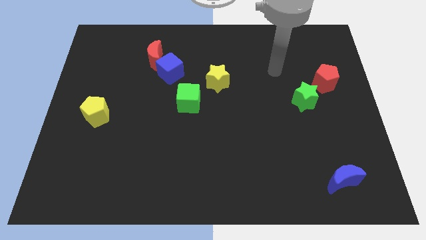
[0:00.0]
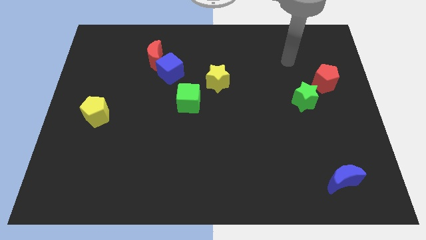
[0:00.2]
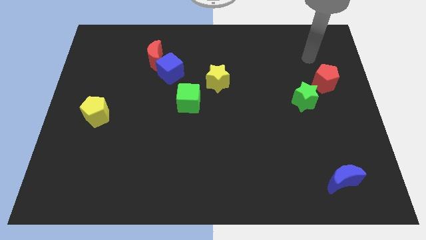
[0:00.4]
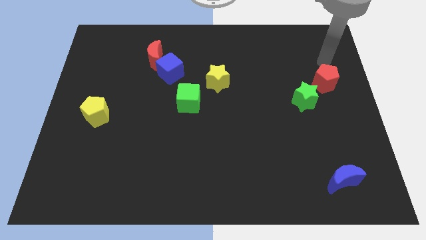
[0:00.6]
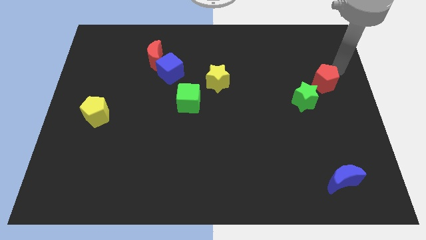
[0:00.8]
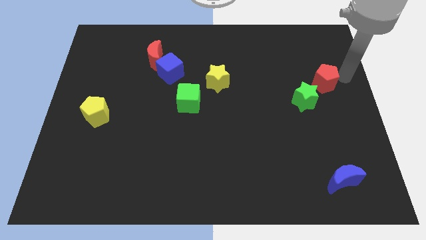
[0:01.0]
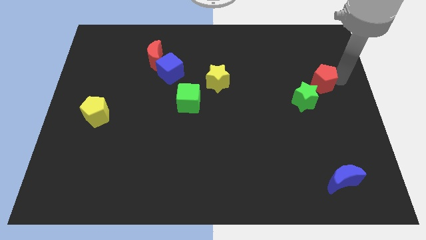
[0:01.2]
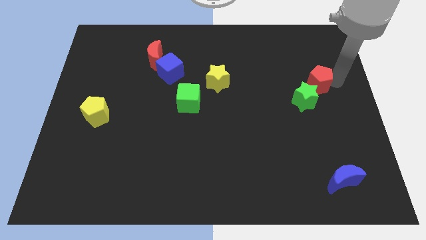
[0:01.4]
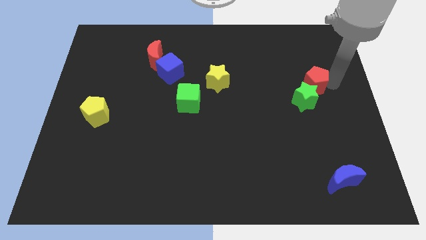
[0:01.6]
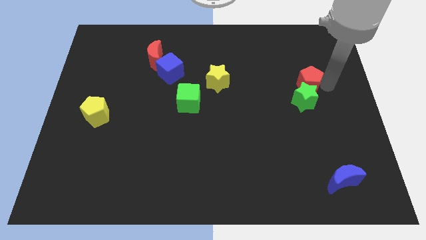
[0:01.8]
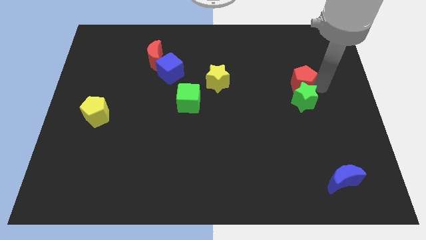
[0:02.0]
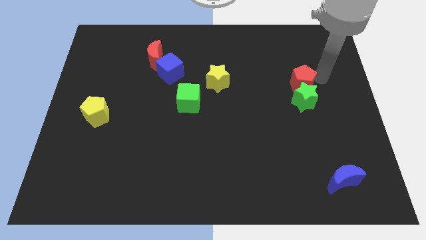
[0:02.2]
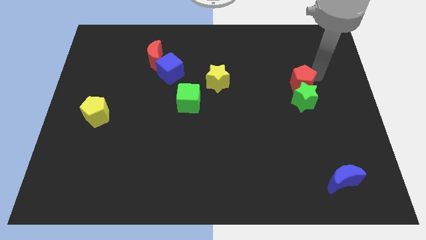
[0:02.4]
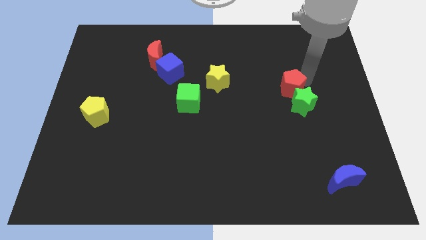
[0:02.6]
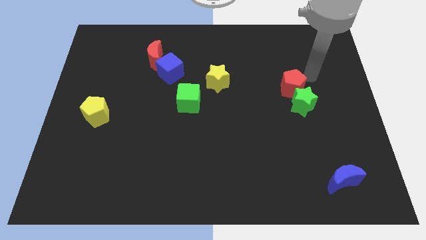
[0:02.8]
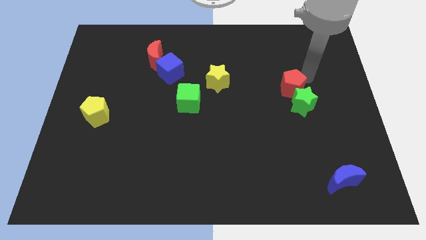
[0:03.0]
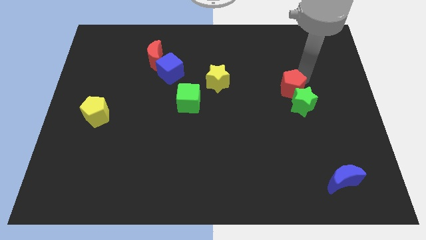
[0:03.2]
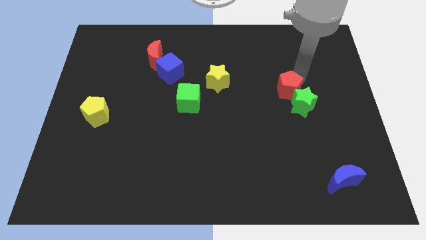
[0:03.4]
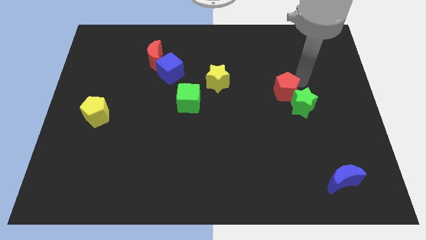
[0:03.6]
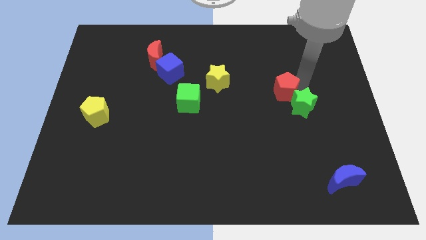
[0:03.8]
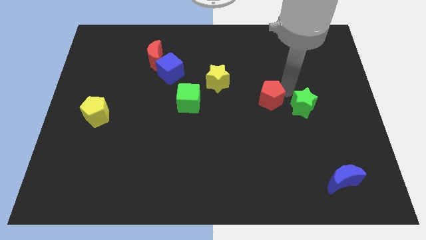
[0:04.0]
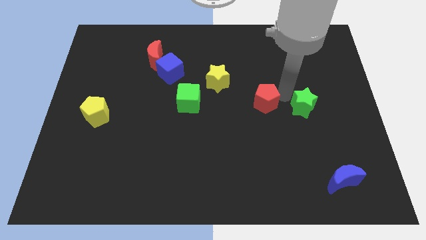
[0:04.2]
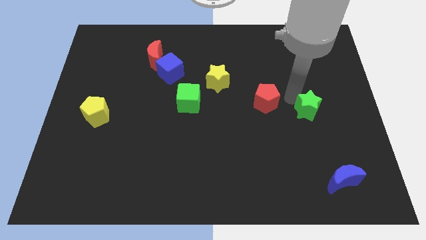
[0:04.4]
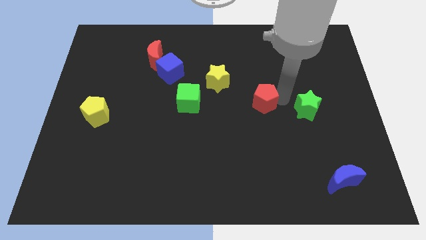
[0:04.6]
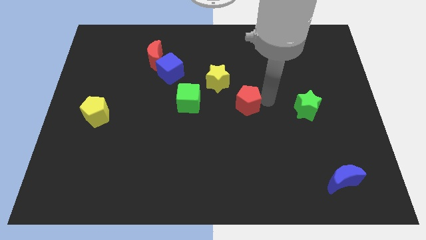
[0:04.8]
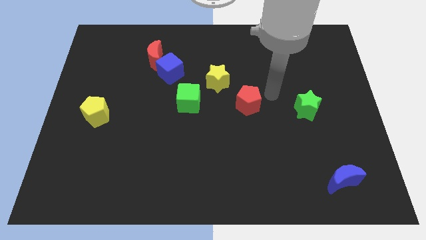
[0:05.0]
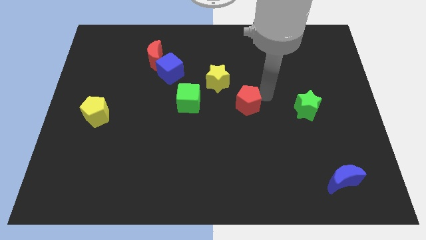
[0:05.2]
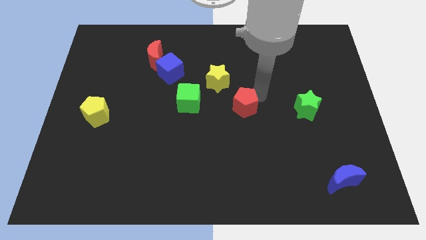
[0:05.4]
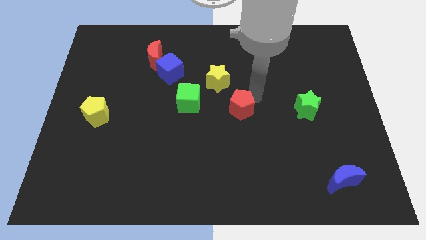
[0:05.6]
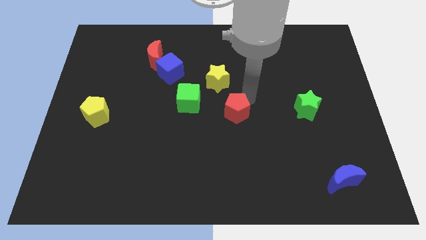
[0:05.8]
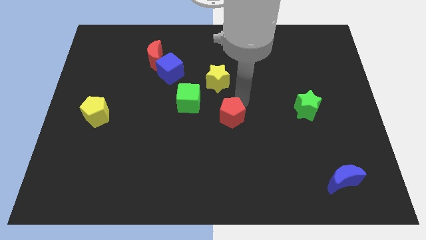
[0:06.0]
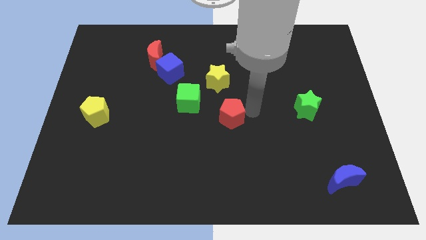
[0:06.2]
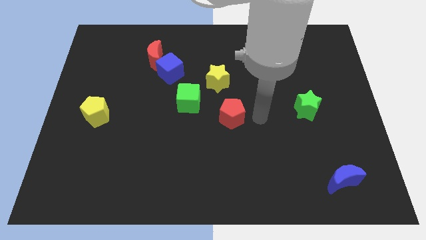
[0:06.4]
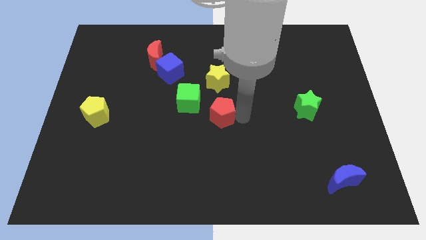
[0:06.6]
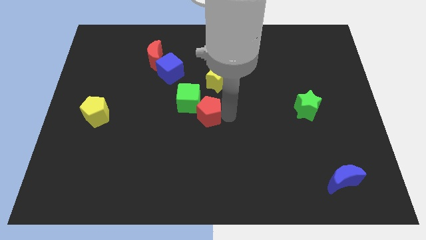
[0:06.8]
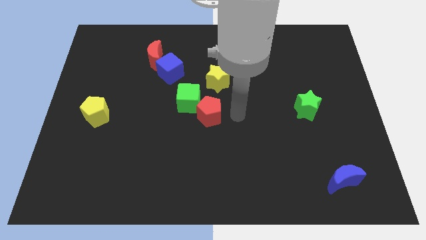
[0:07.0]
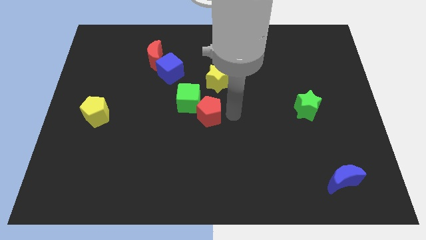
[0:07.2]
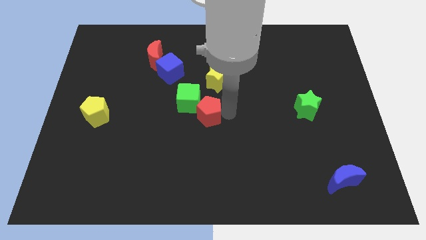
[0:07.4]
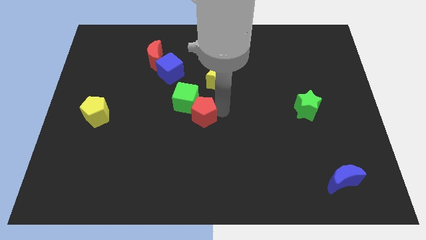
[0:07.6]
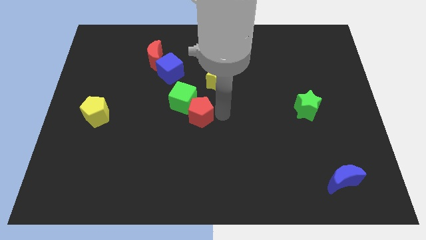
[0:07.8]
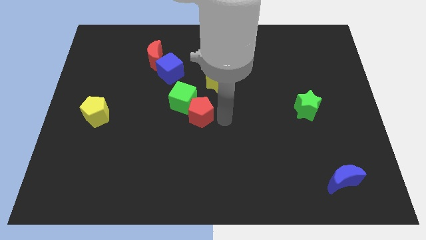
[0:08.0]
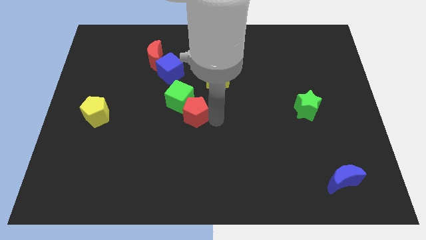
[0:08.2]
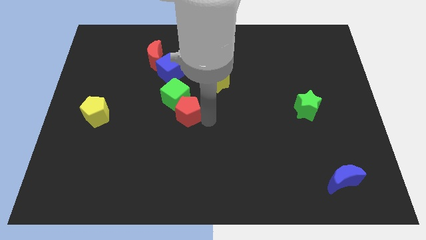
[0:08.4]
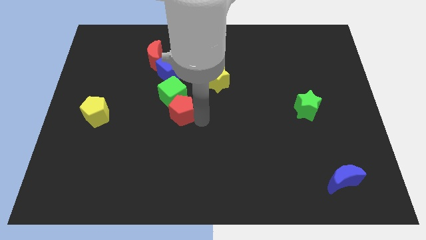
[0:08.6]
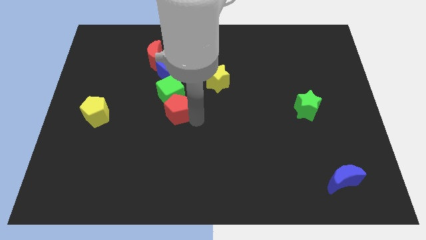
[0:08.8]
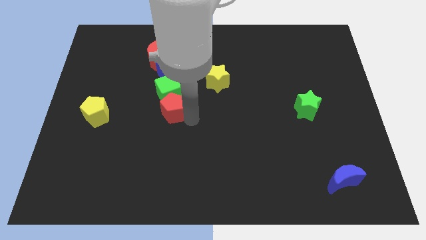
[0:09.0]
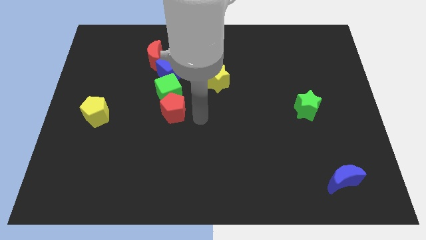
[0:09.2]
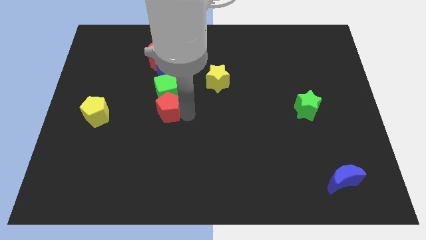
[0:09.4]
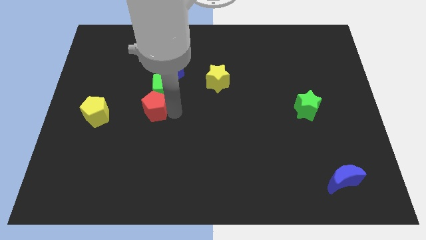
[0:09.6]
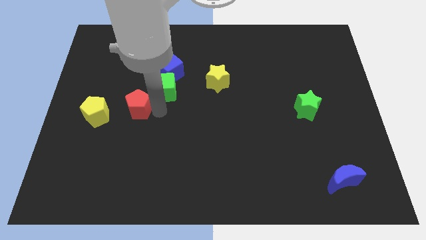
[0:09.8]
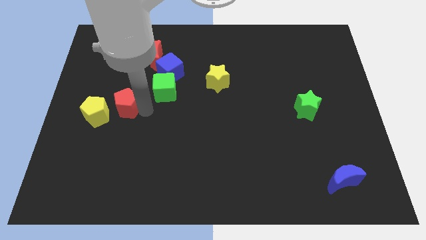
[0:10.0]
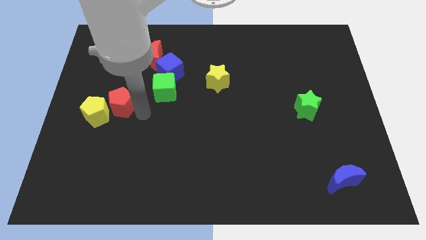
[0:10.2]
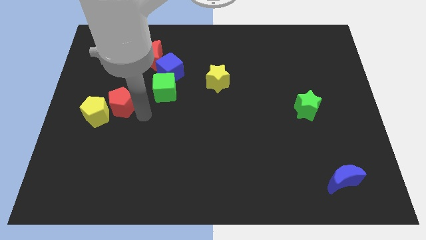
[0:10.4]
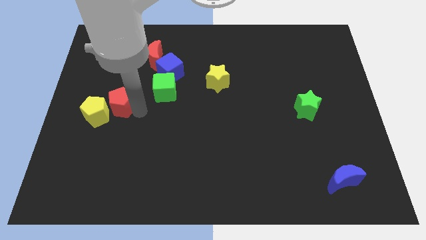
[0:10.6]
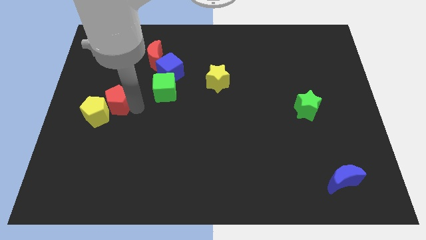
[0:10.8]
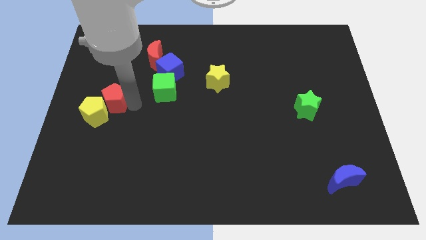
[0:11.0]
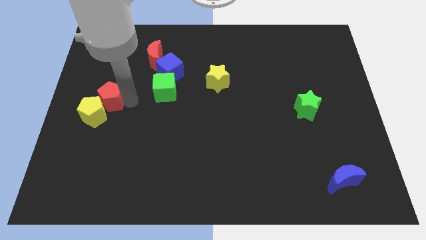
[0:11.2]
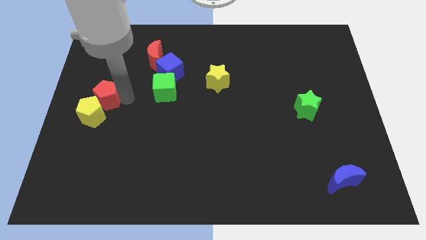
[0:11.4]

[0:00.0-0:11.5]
push the red pentagon to the left side of the board

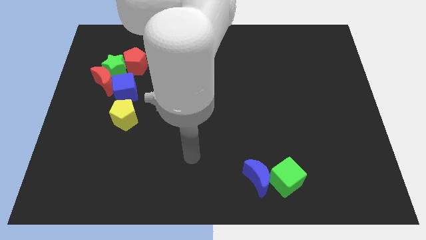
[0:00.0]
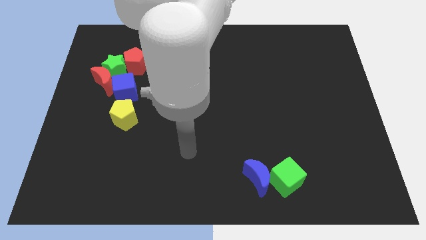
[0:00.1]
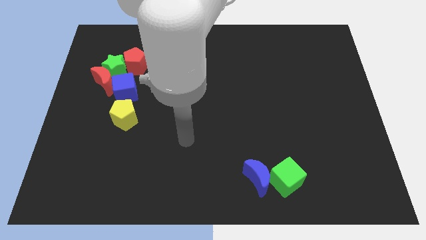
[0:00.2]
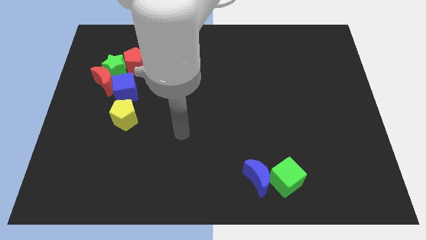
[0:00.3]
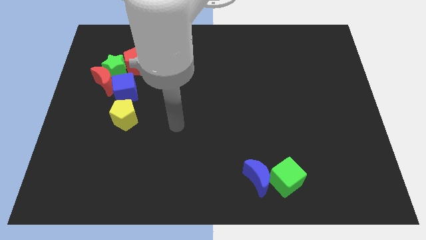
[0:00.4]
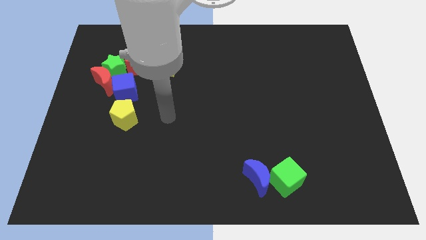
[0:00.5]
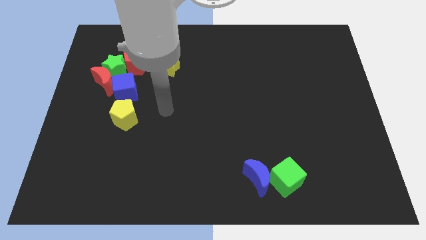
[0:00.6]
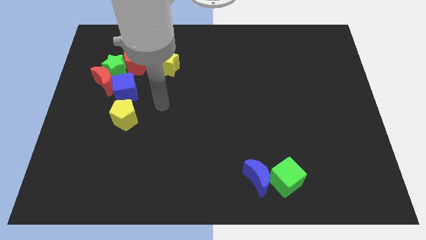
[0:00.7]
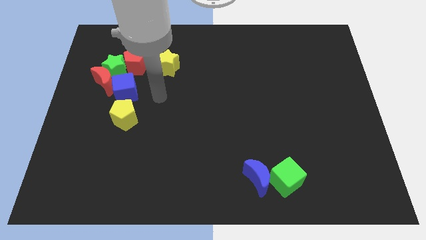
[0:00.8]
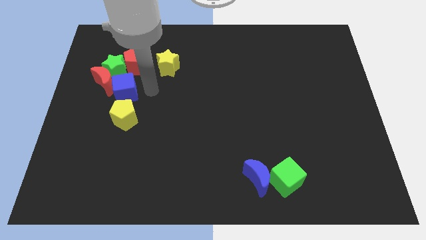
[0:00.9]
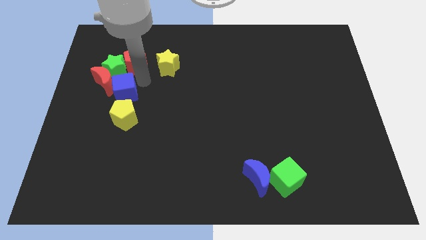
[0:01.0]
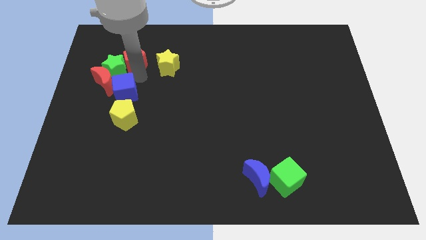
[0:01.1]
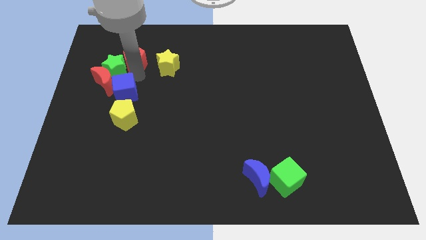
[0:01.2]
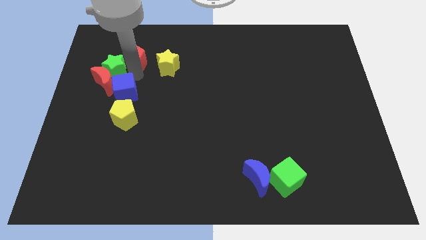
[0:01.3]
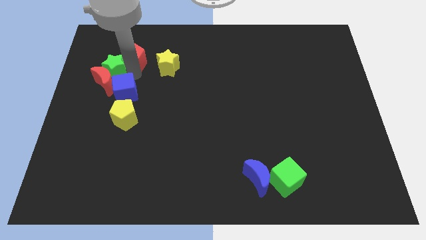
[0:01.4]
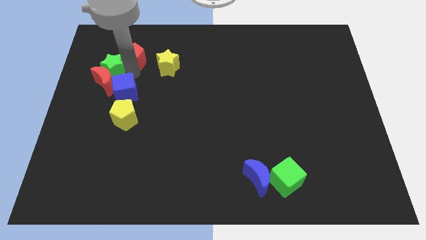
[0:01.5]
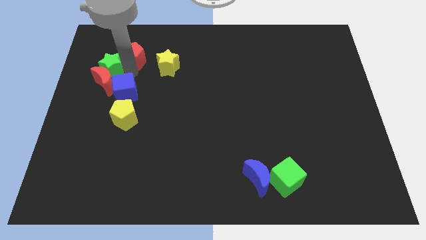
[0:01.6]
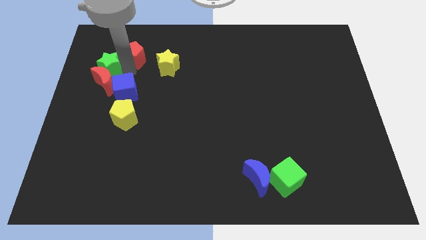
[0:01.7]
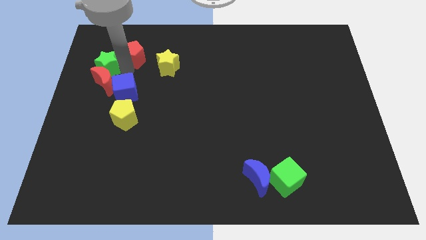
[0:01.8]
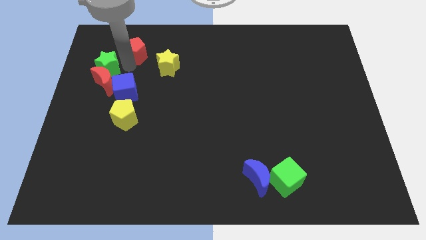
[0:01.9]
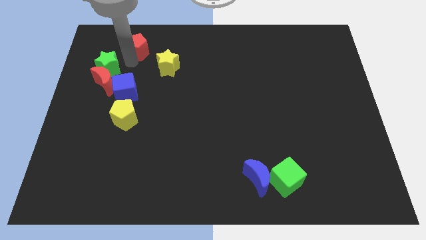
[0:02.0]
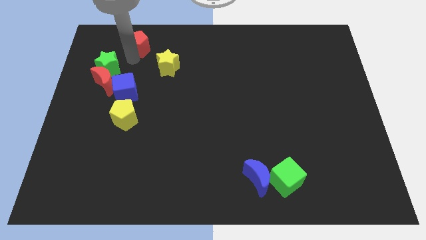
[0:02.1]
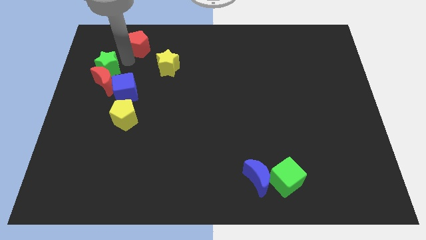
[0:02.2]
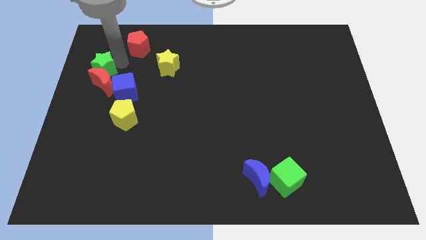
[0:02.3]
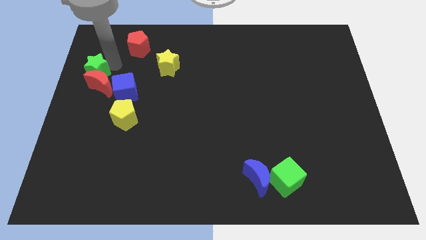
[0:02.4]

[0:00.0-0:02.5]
push the green star to the left side of the board
